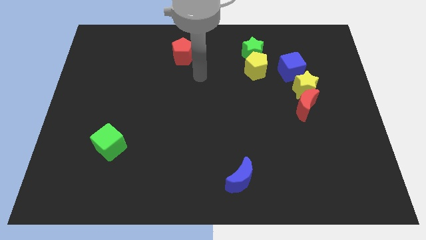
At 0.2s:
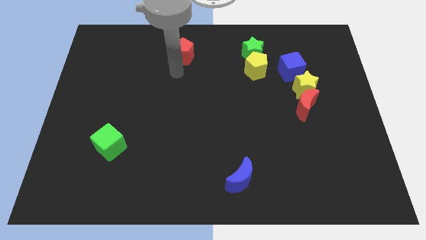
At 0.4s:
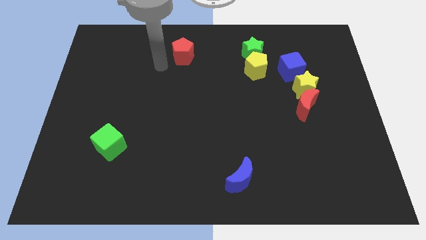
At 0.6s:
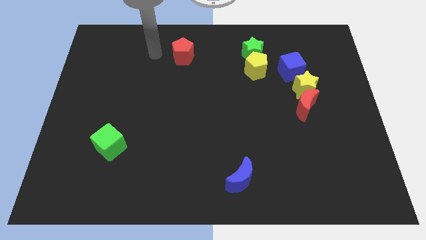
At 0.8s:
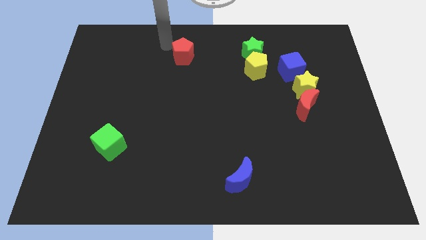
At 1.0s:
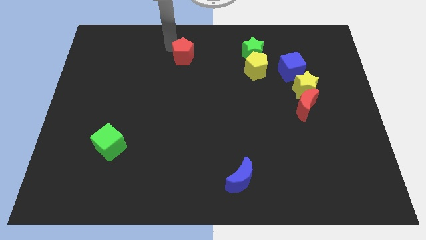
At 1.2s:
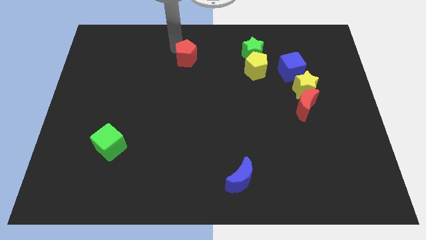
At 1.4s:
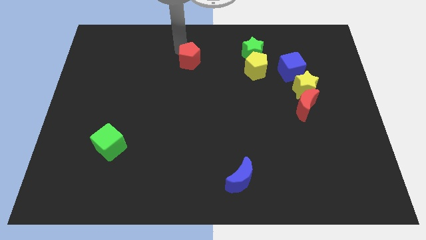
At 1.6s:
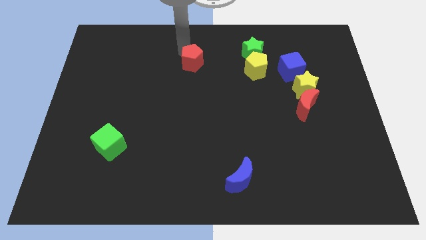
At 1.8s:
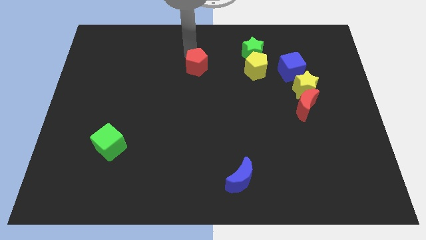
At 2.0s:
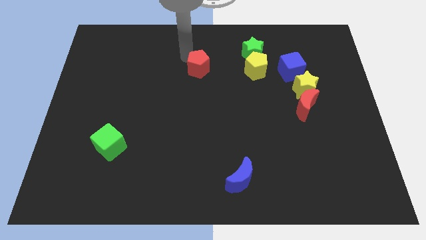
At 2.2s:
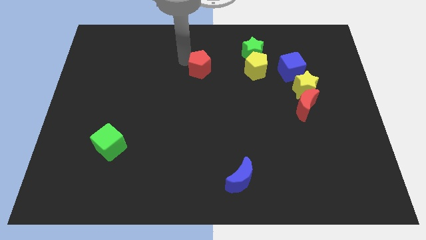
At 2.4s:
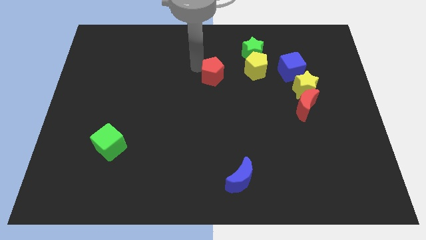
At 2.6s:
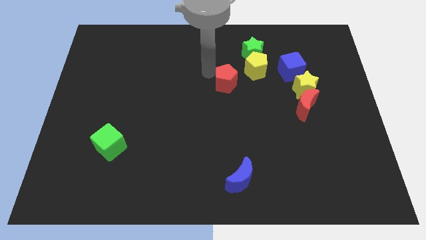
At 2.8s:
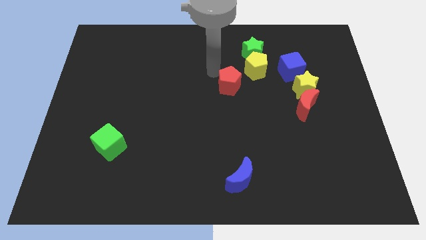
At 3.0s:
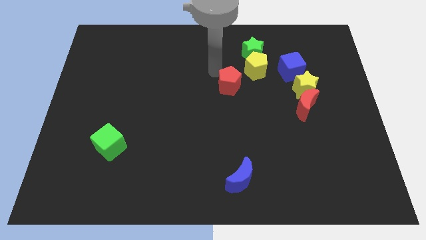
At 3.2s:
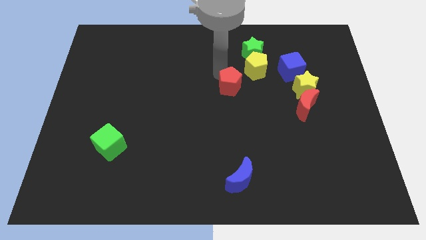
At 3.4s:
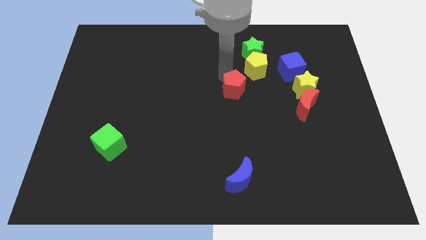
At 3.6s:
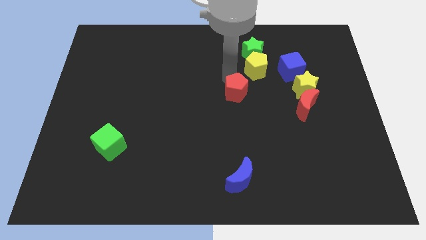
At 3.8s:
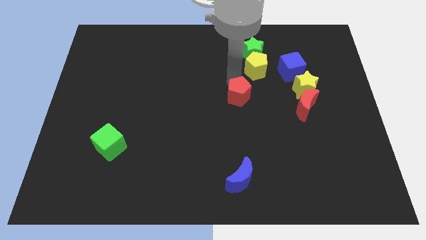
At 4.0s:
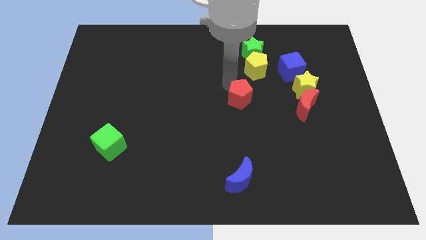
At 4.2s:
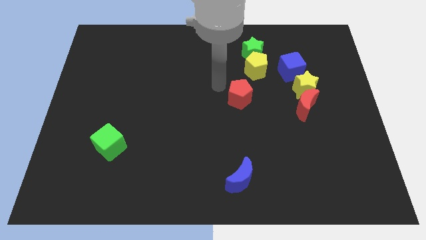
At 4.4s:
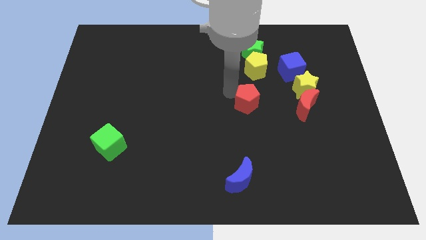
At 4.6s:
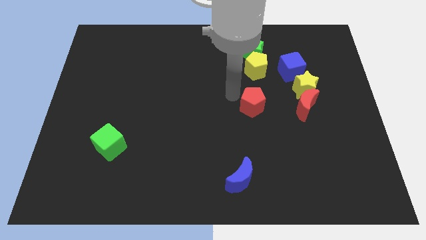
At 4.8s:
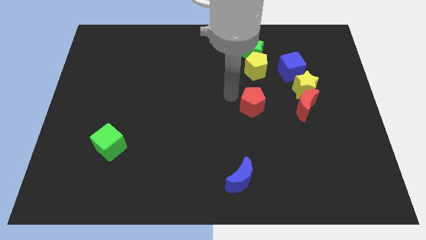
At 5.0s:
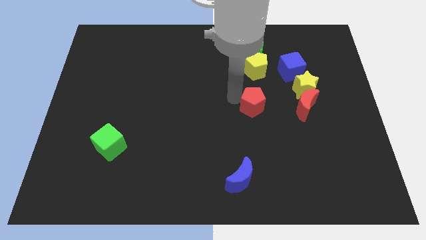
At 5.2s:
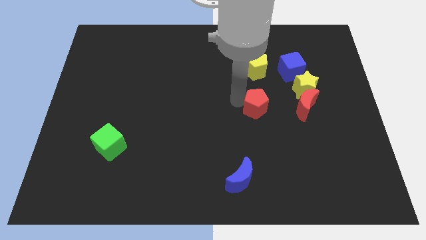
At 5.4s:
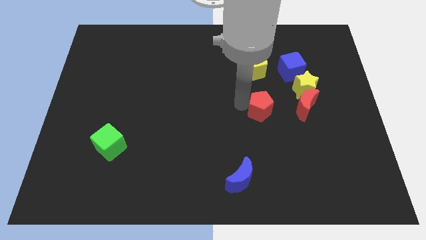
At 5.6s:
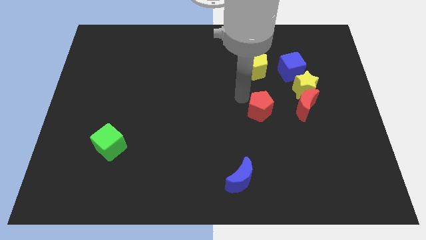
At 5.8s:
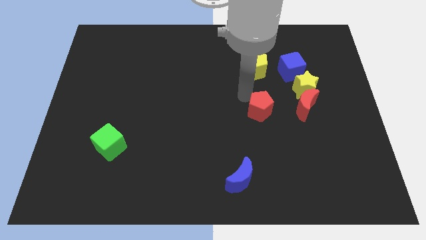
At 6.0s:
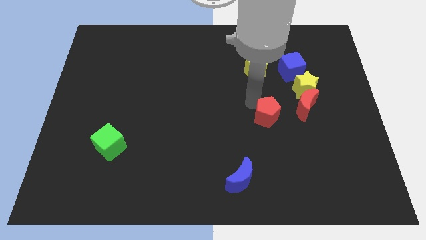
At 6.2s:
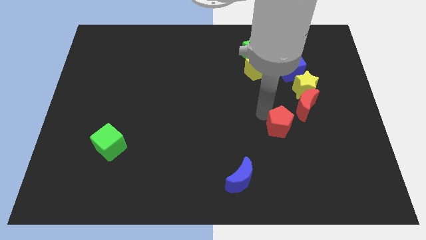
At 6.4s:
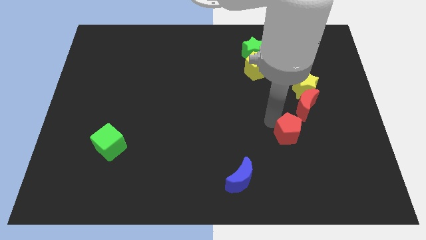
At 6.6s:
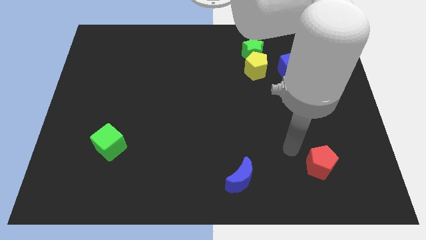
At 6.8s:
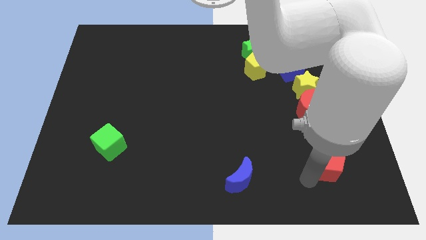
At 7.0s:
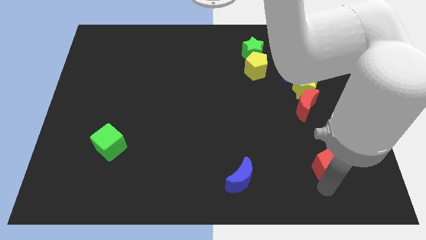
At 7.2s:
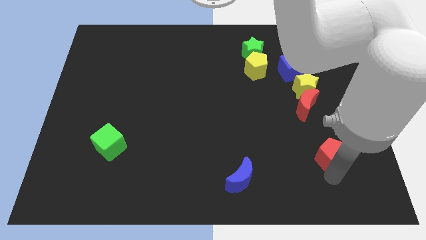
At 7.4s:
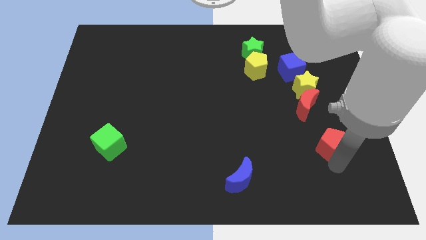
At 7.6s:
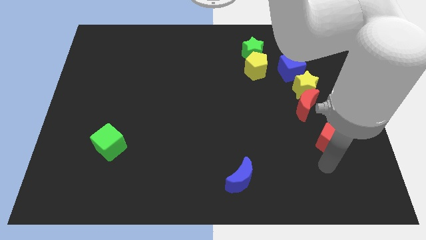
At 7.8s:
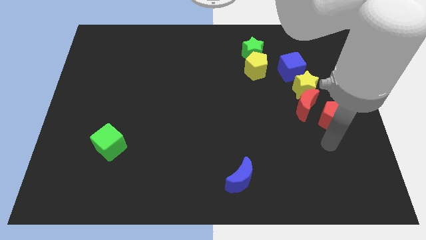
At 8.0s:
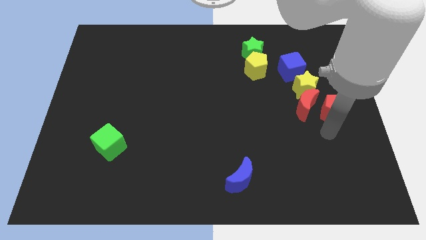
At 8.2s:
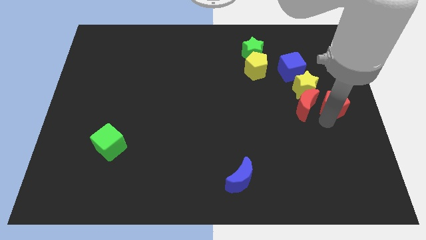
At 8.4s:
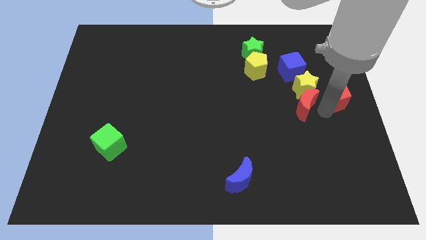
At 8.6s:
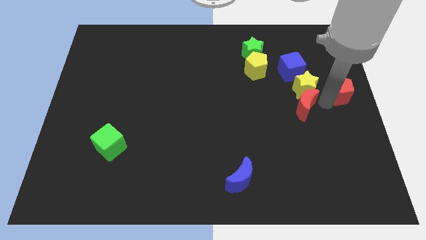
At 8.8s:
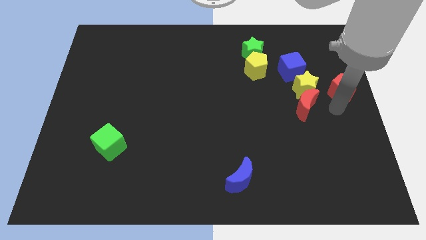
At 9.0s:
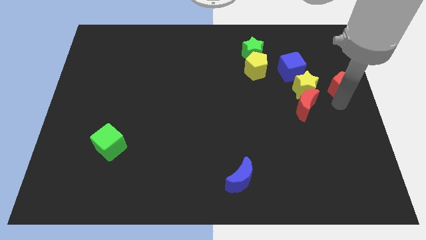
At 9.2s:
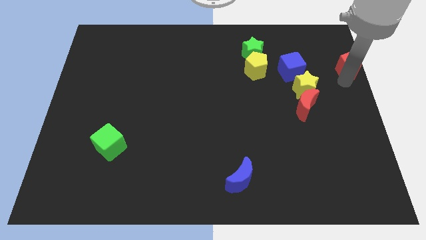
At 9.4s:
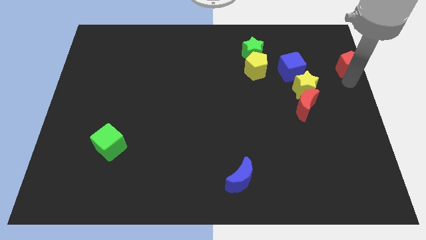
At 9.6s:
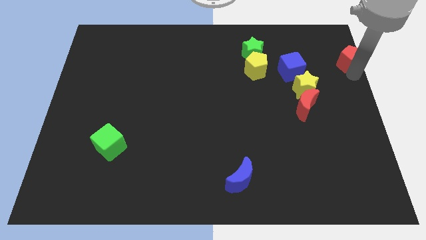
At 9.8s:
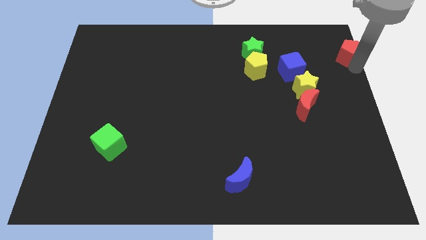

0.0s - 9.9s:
slide the red pentagon to the upper right corner

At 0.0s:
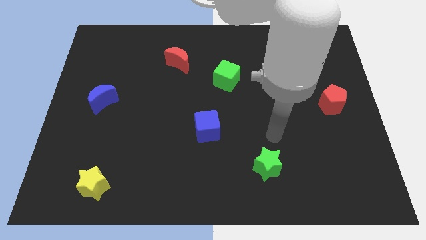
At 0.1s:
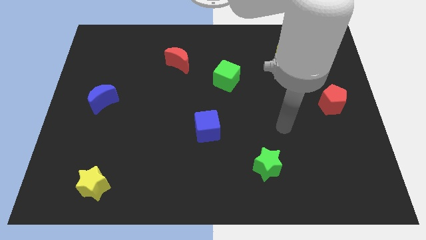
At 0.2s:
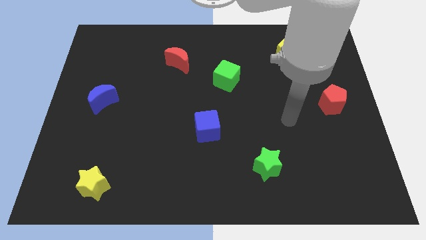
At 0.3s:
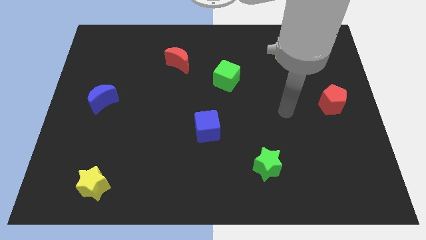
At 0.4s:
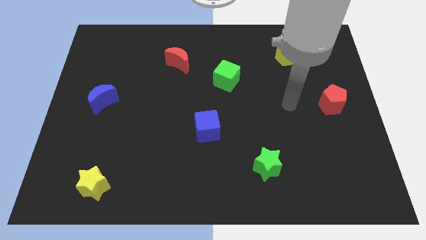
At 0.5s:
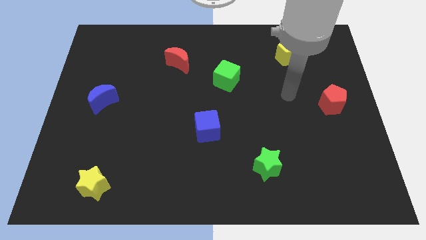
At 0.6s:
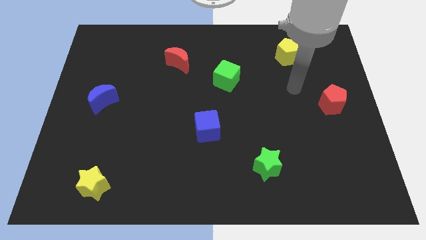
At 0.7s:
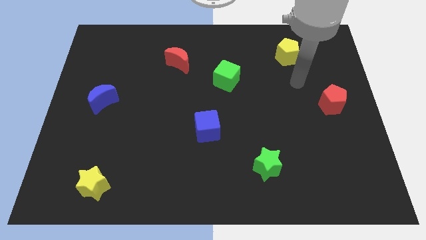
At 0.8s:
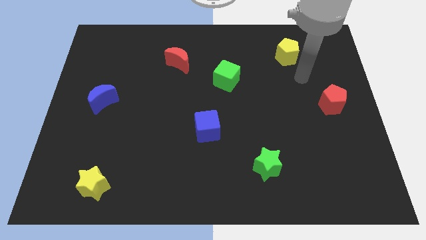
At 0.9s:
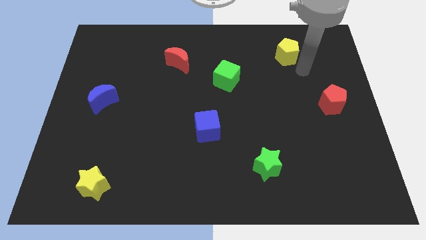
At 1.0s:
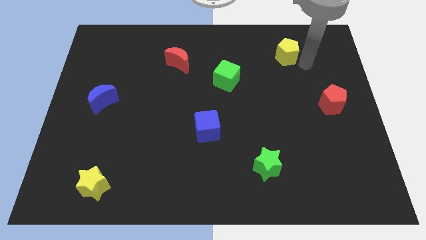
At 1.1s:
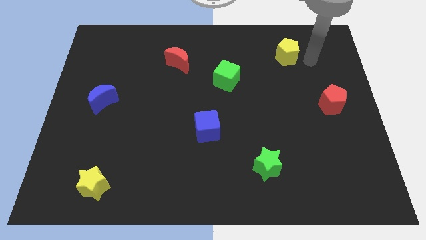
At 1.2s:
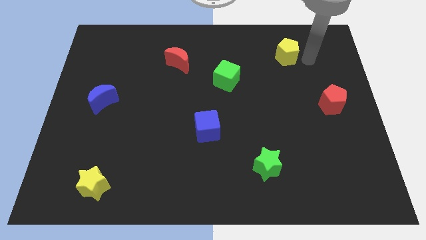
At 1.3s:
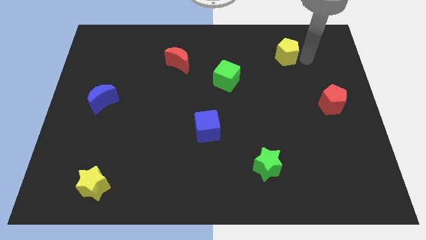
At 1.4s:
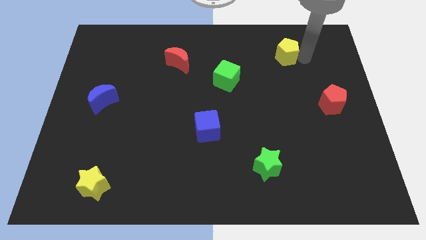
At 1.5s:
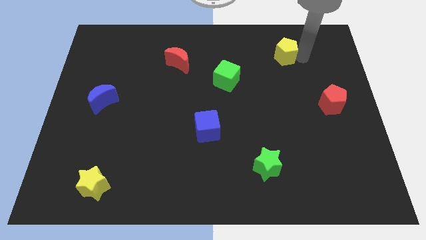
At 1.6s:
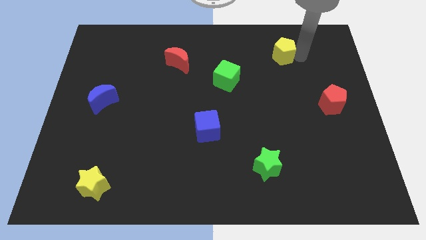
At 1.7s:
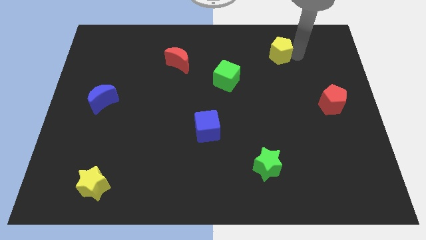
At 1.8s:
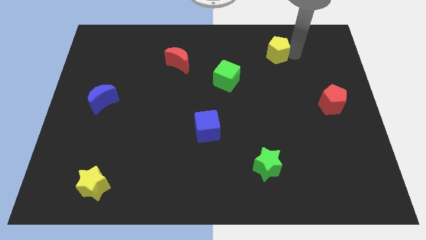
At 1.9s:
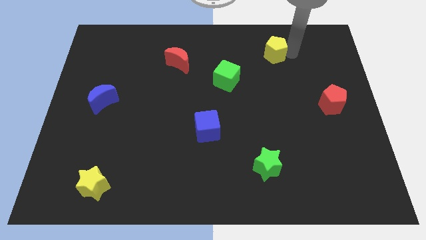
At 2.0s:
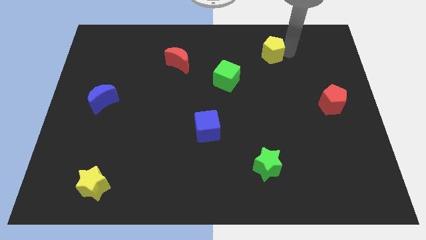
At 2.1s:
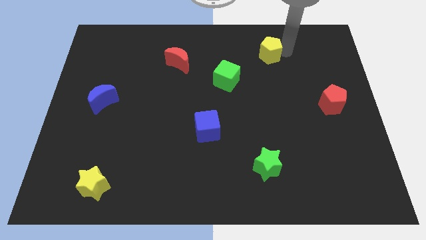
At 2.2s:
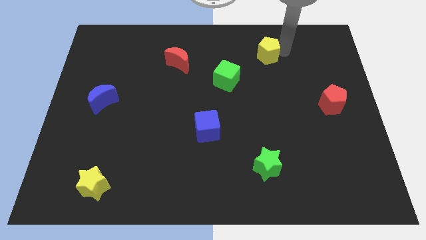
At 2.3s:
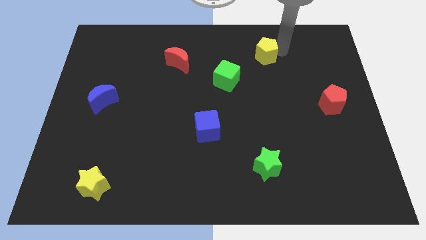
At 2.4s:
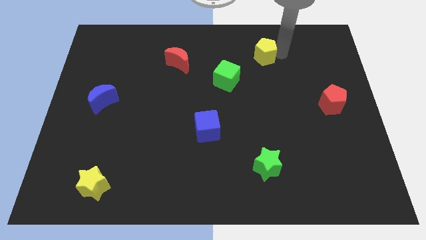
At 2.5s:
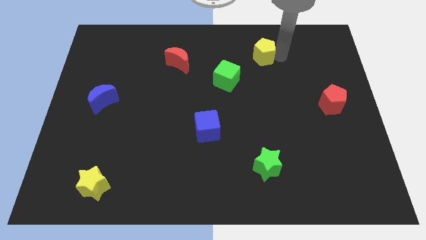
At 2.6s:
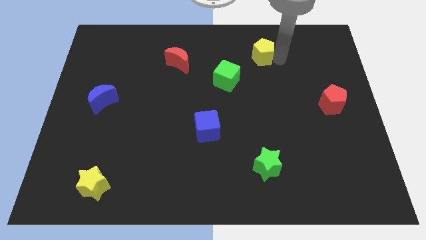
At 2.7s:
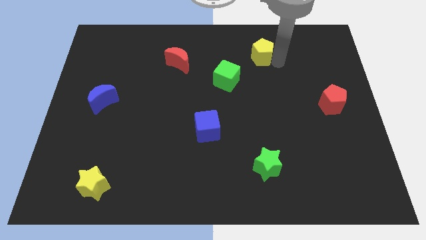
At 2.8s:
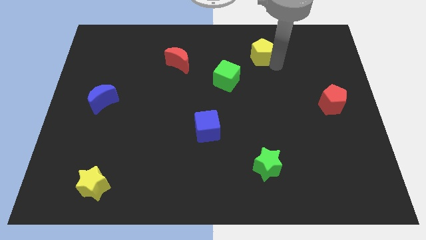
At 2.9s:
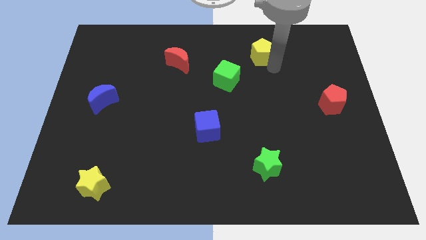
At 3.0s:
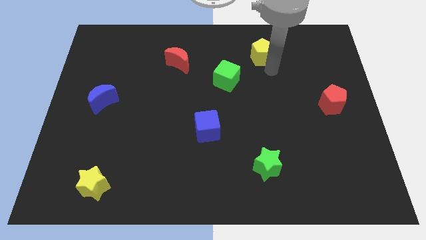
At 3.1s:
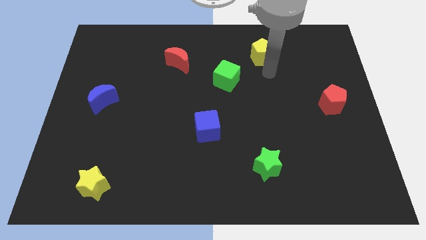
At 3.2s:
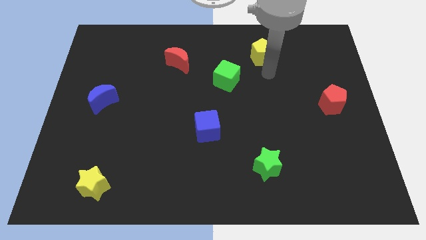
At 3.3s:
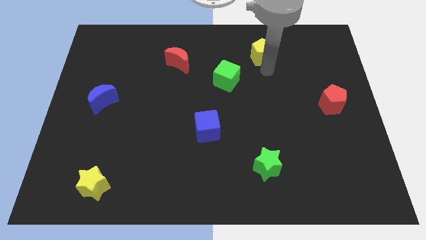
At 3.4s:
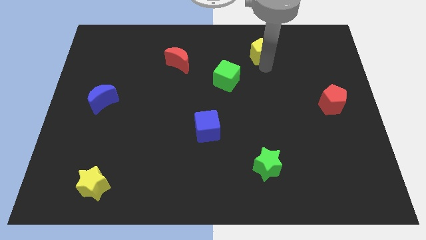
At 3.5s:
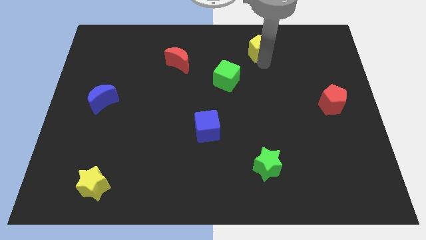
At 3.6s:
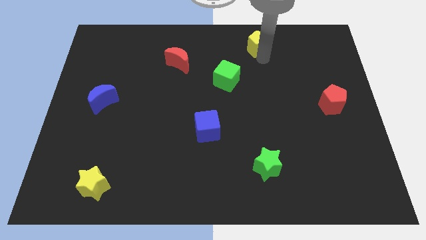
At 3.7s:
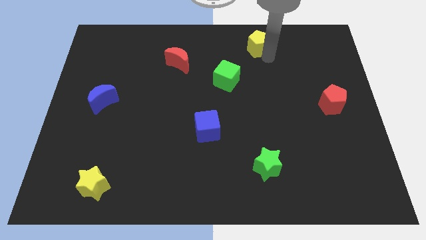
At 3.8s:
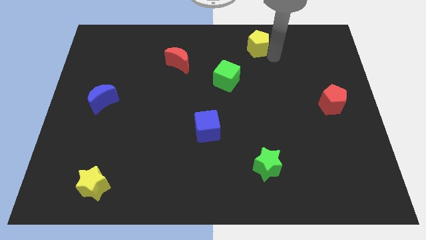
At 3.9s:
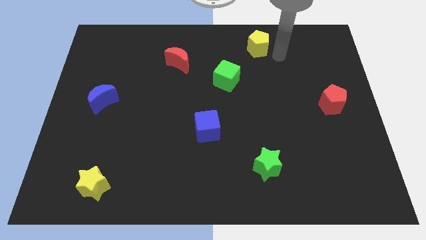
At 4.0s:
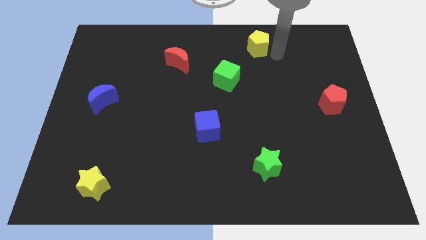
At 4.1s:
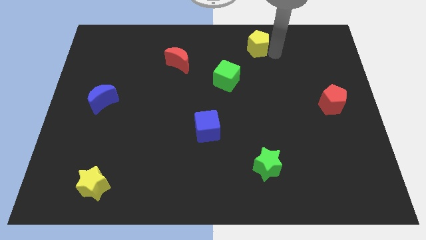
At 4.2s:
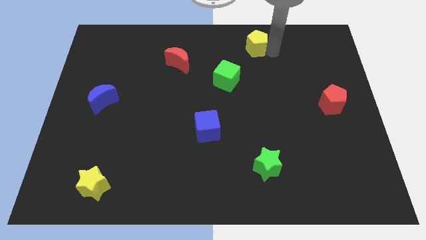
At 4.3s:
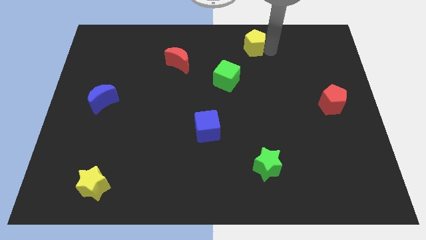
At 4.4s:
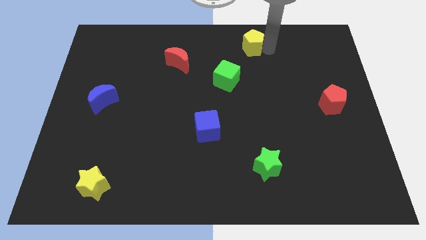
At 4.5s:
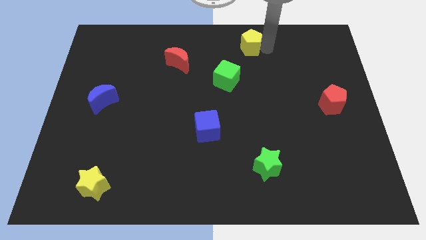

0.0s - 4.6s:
move the yellow pentagon to the towards your base
